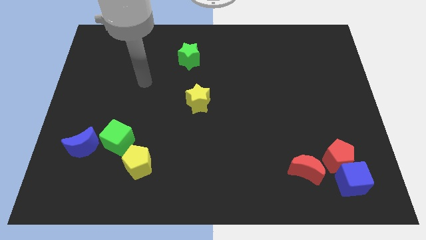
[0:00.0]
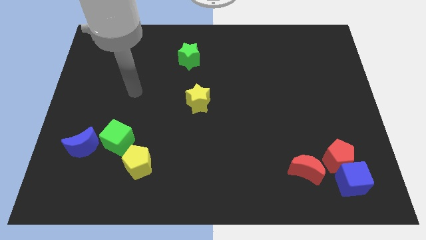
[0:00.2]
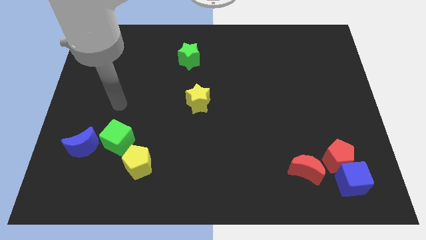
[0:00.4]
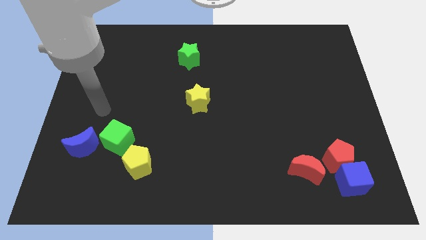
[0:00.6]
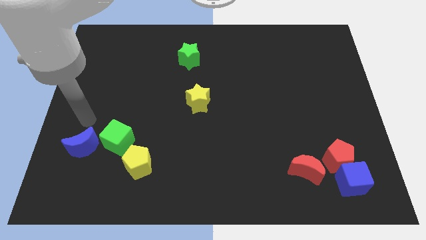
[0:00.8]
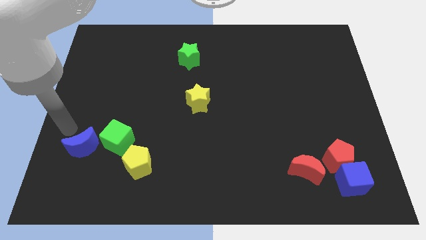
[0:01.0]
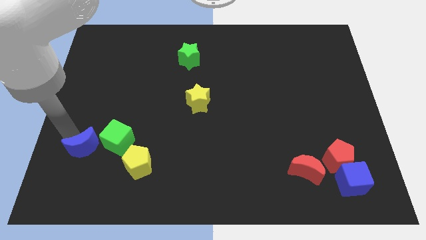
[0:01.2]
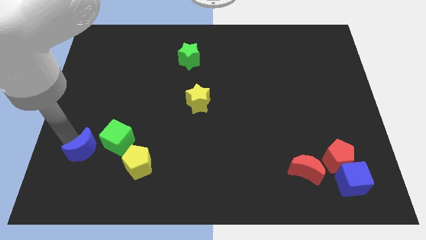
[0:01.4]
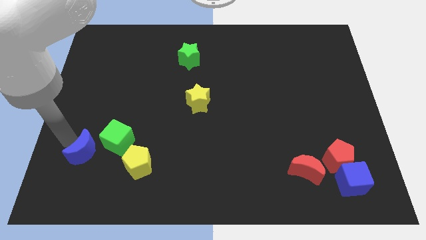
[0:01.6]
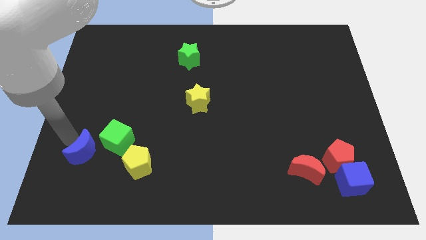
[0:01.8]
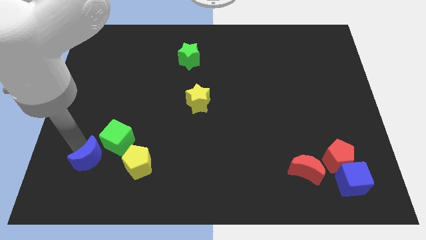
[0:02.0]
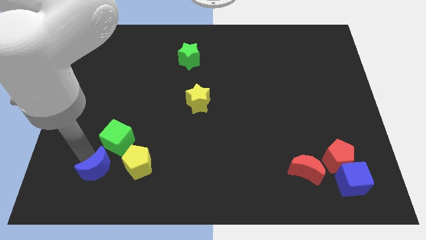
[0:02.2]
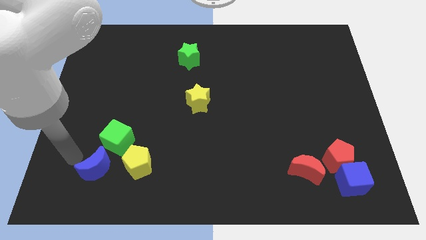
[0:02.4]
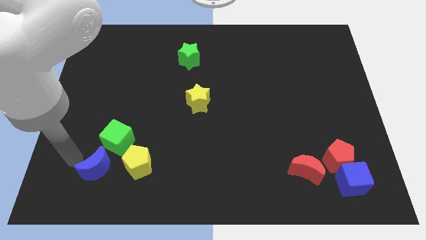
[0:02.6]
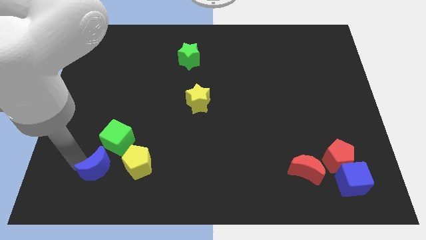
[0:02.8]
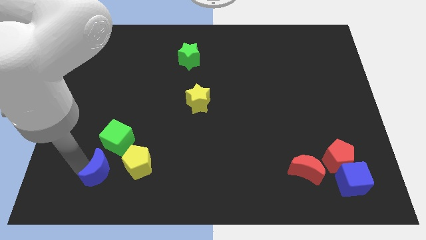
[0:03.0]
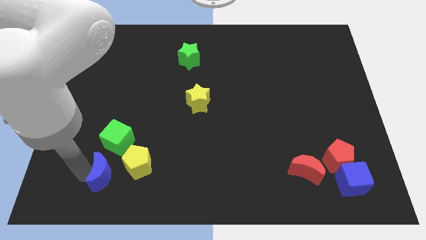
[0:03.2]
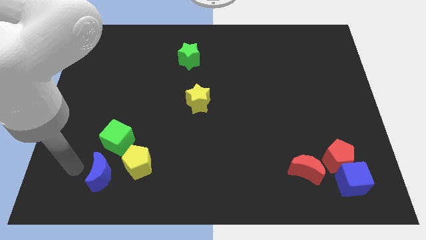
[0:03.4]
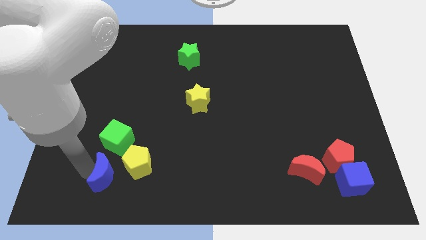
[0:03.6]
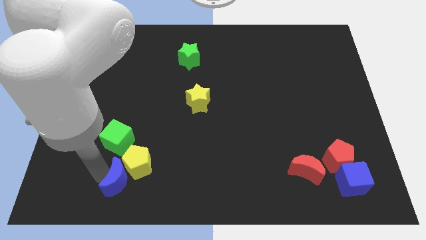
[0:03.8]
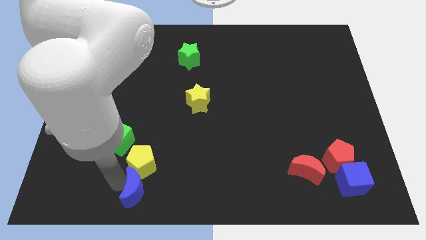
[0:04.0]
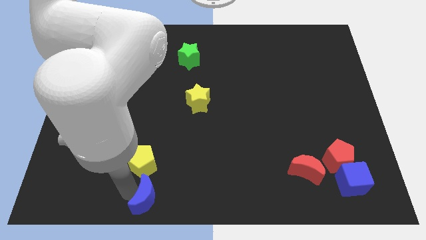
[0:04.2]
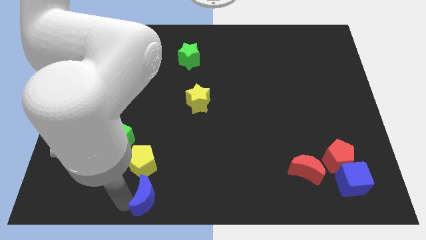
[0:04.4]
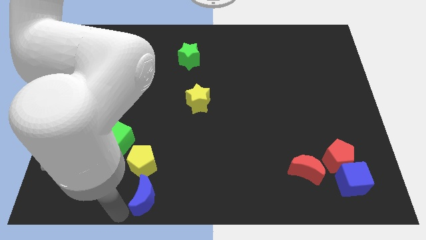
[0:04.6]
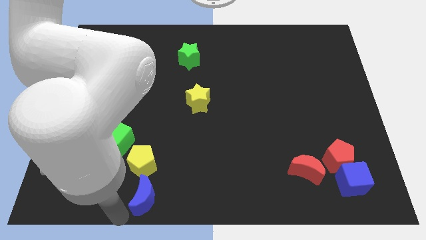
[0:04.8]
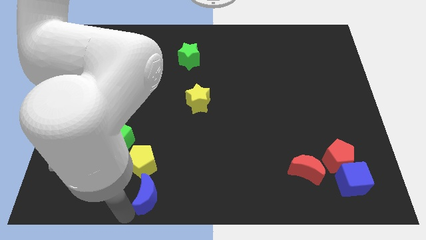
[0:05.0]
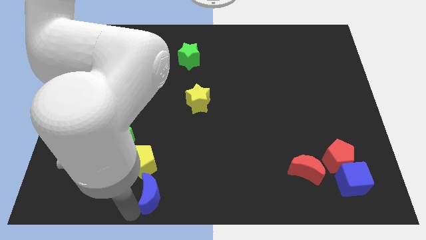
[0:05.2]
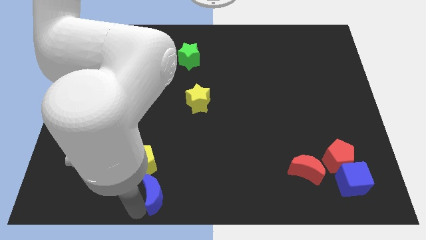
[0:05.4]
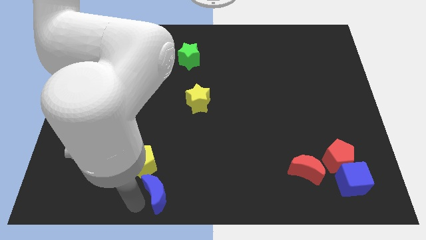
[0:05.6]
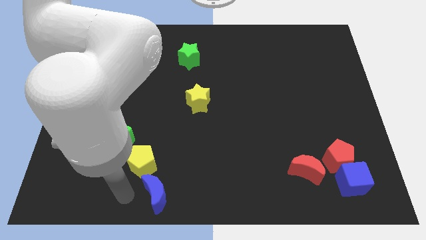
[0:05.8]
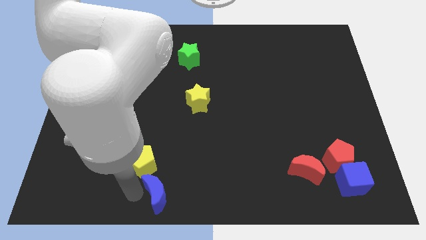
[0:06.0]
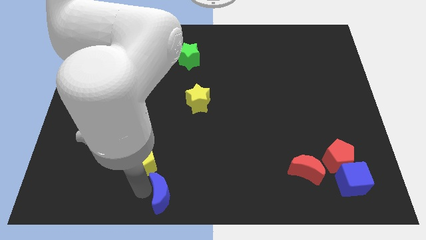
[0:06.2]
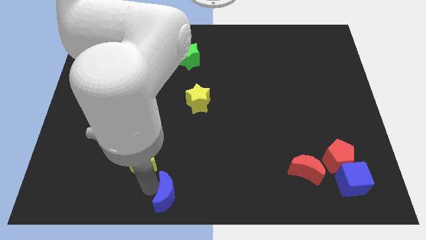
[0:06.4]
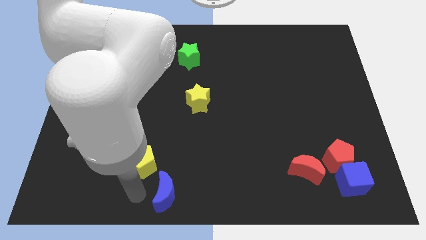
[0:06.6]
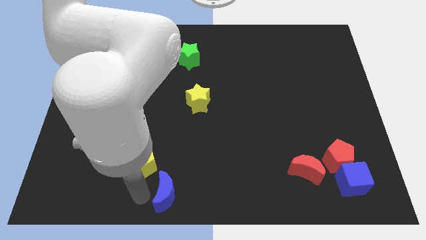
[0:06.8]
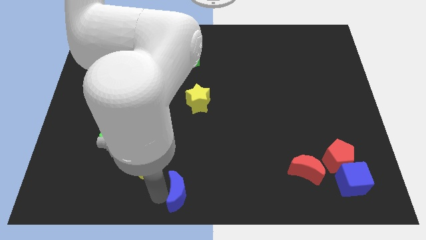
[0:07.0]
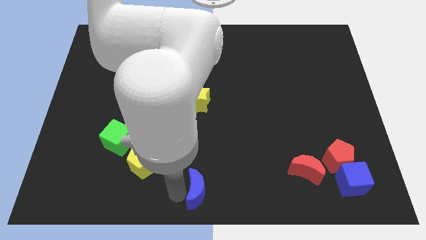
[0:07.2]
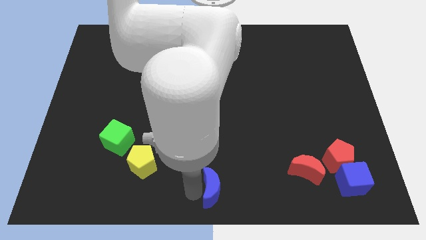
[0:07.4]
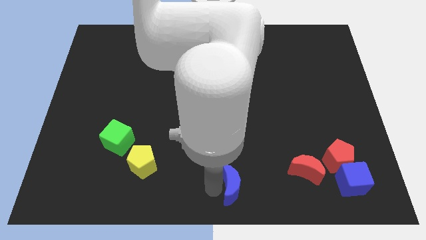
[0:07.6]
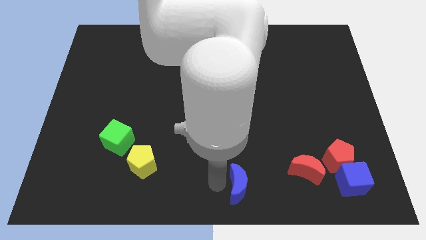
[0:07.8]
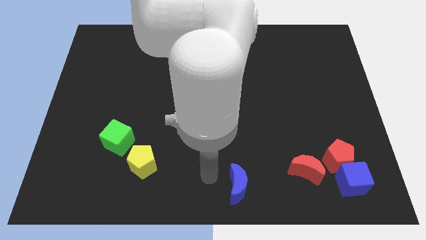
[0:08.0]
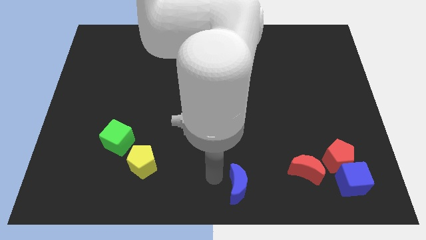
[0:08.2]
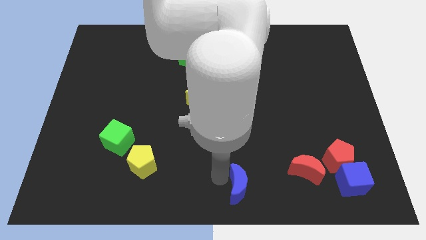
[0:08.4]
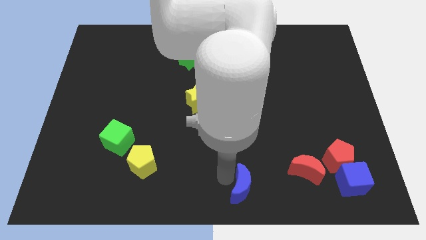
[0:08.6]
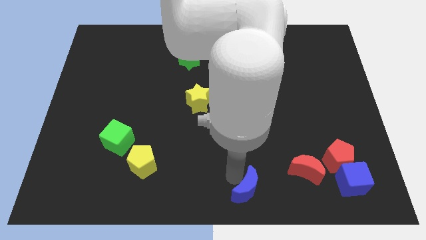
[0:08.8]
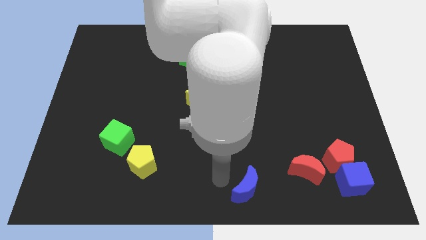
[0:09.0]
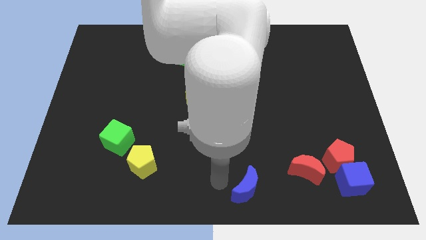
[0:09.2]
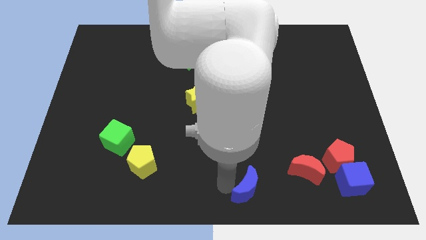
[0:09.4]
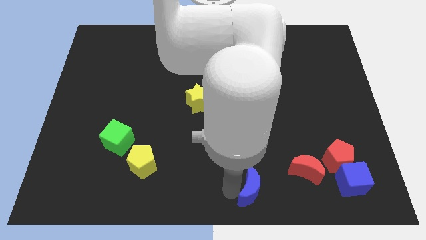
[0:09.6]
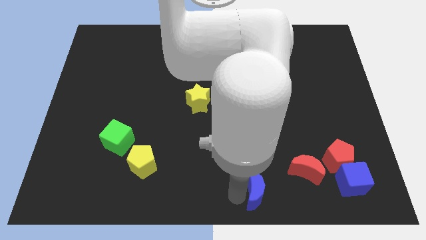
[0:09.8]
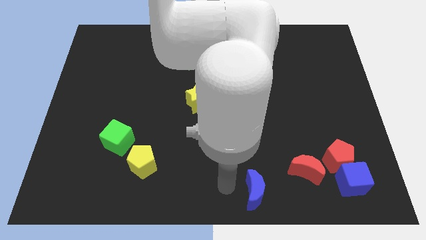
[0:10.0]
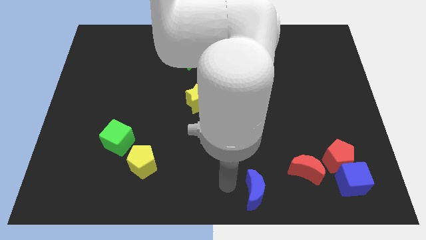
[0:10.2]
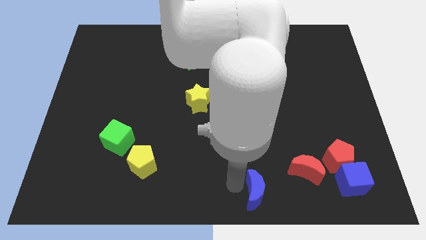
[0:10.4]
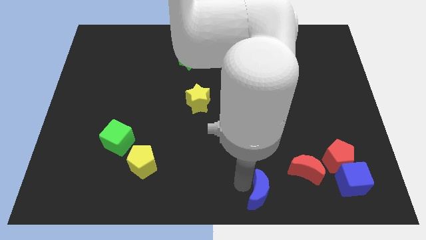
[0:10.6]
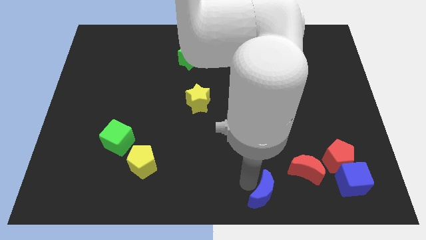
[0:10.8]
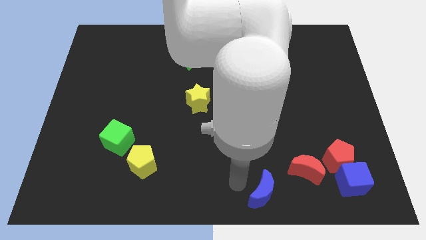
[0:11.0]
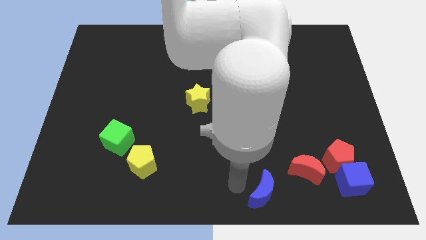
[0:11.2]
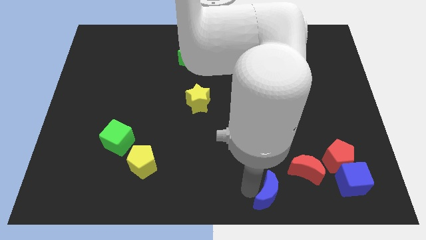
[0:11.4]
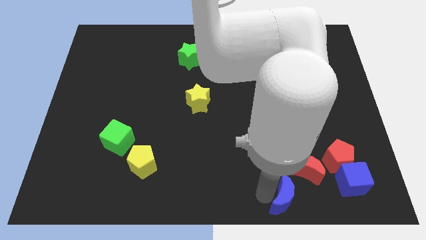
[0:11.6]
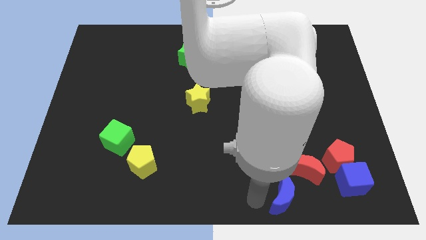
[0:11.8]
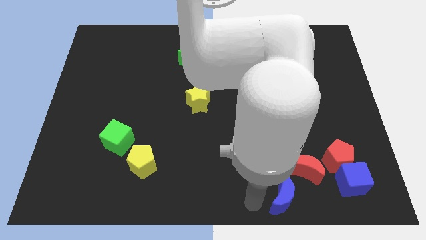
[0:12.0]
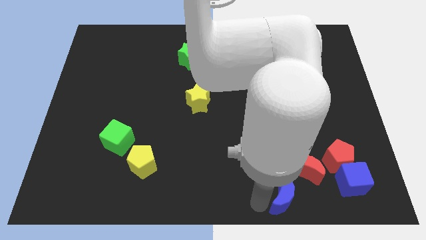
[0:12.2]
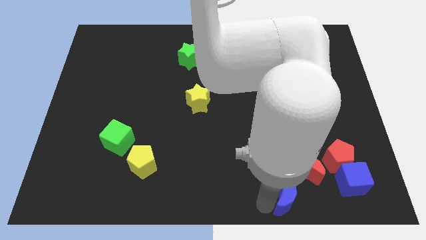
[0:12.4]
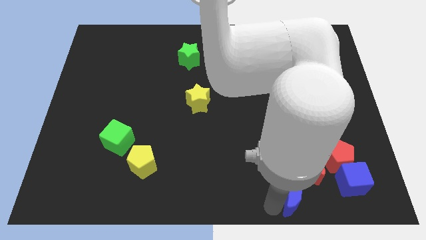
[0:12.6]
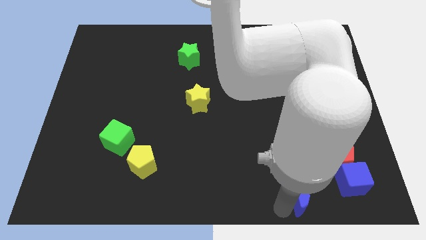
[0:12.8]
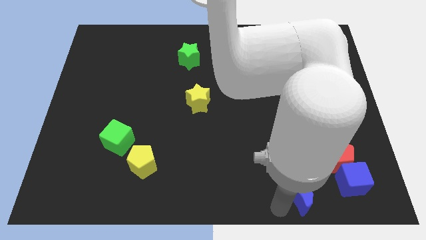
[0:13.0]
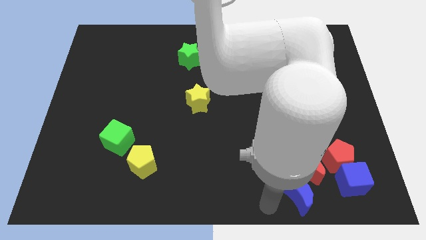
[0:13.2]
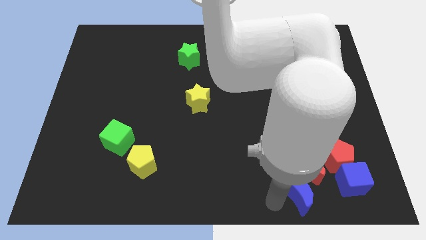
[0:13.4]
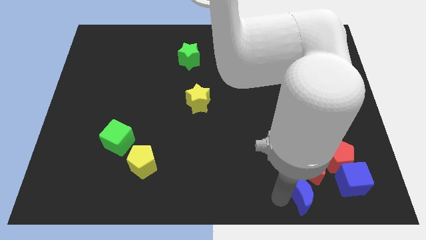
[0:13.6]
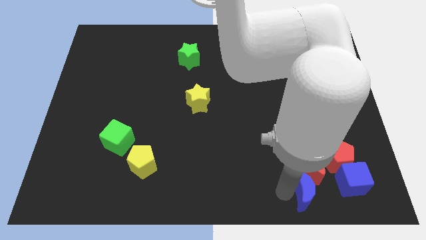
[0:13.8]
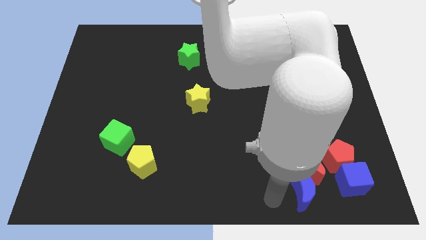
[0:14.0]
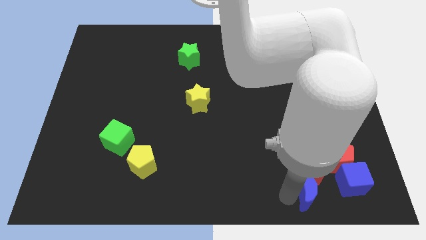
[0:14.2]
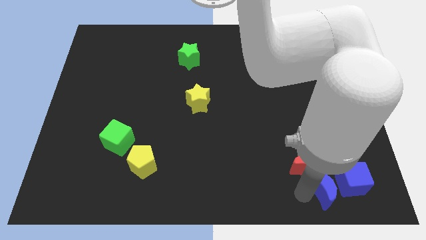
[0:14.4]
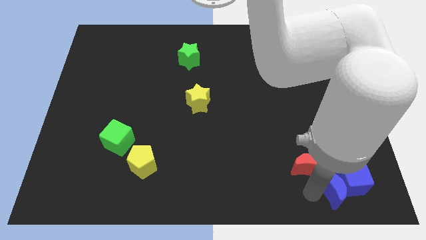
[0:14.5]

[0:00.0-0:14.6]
push the blue moon next to the blue cube
